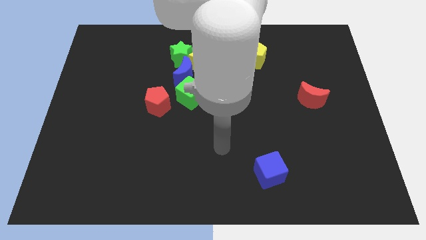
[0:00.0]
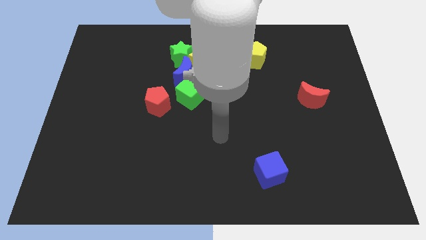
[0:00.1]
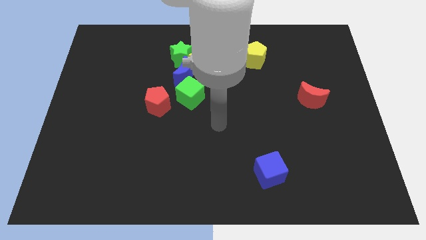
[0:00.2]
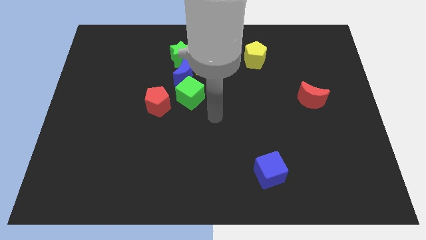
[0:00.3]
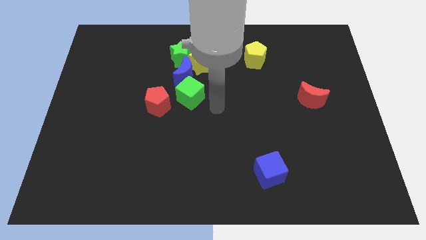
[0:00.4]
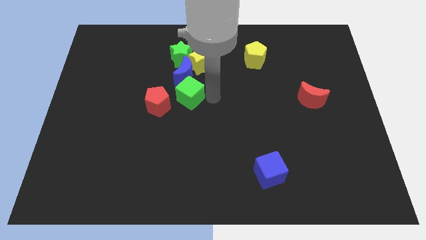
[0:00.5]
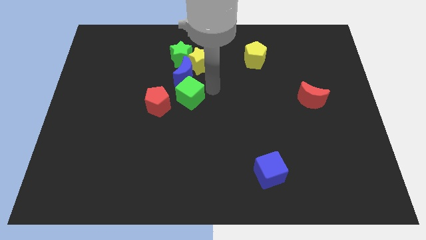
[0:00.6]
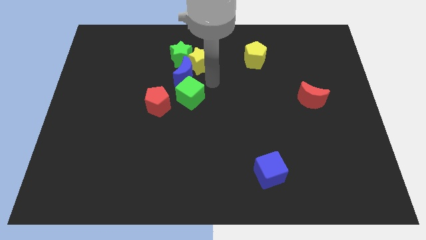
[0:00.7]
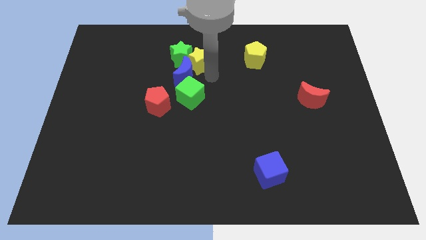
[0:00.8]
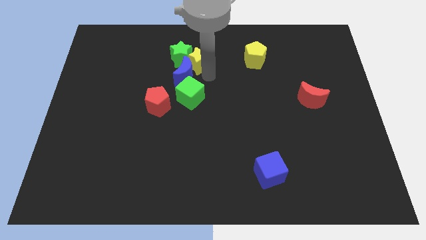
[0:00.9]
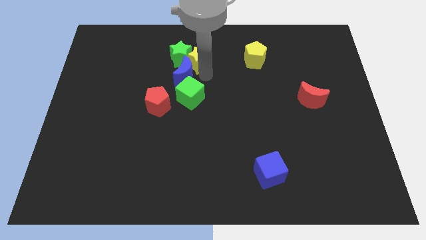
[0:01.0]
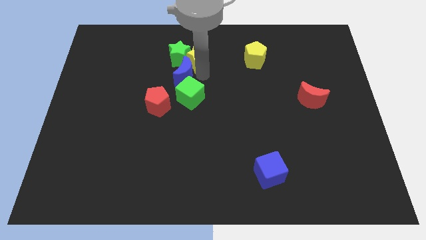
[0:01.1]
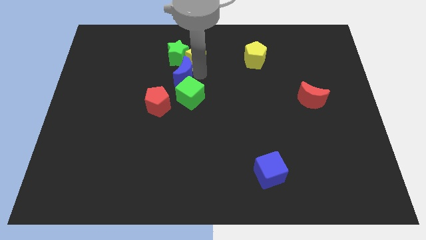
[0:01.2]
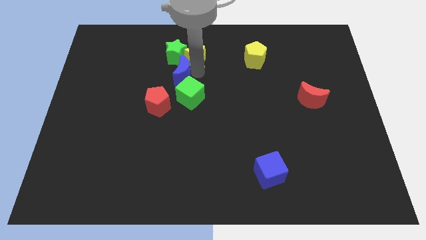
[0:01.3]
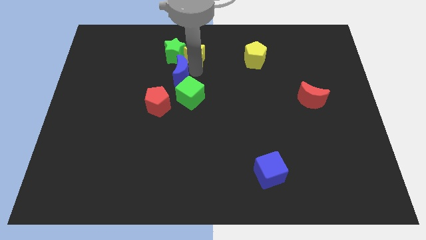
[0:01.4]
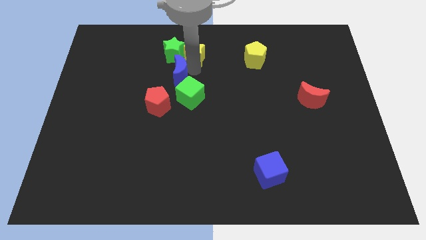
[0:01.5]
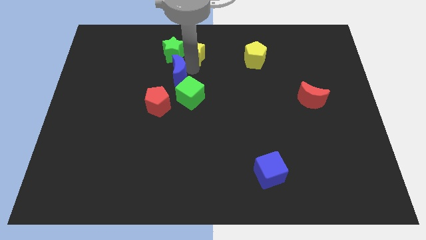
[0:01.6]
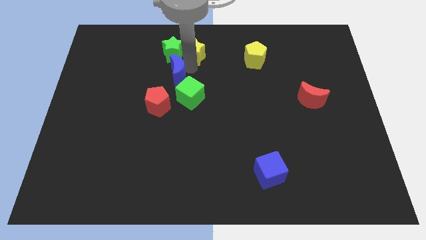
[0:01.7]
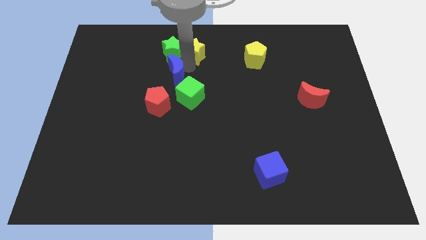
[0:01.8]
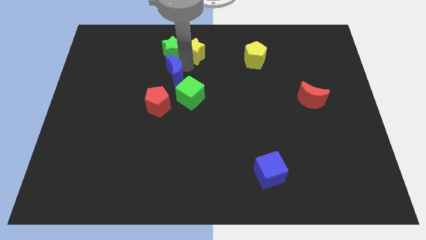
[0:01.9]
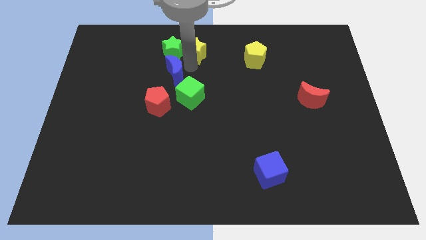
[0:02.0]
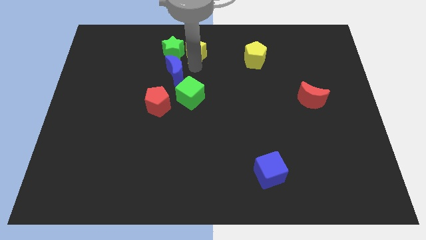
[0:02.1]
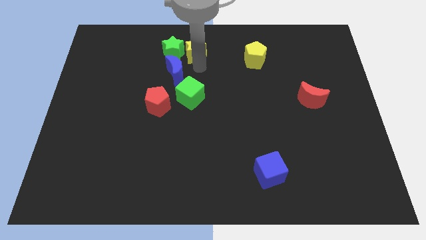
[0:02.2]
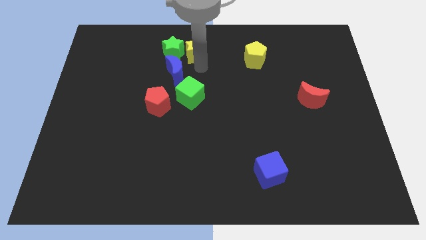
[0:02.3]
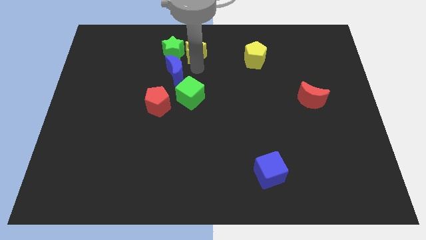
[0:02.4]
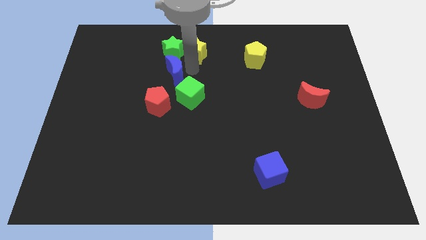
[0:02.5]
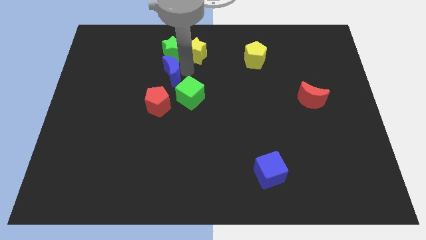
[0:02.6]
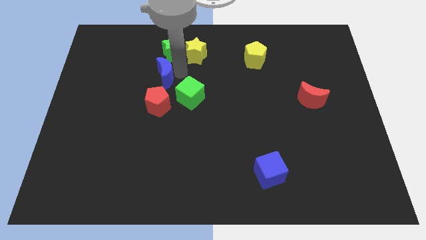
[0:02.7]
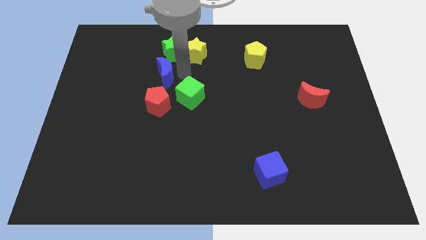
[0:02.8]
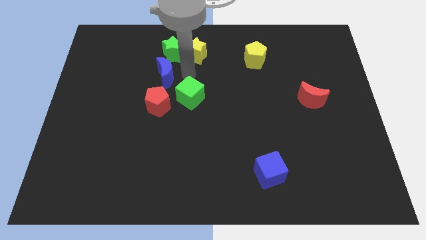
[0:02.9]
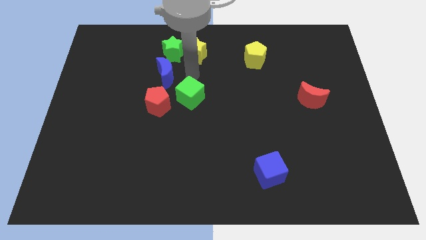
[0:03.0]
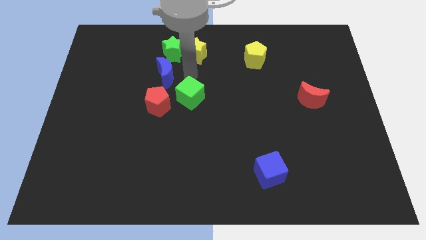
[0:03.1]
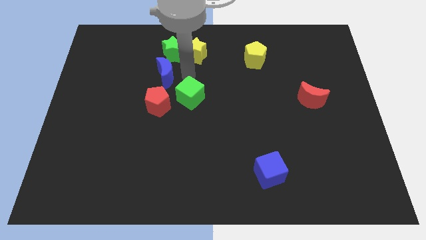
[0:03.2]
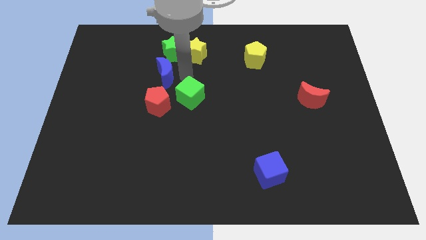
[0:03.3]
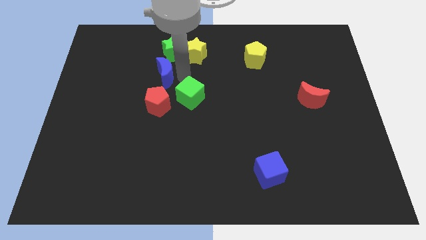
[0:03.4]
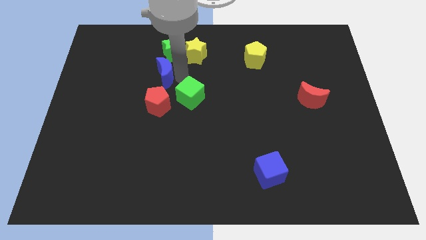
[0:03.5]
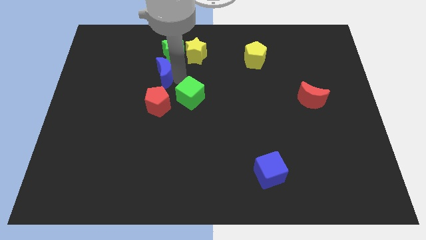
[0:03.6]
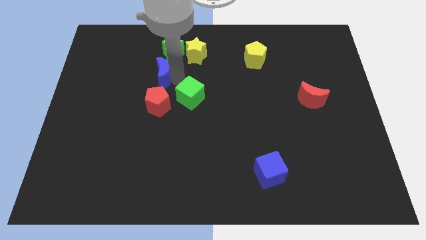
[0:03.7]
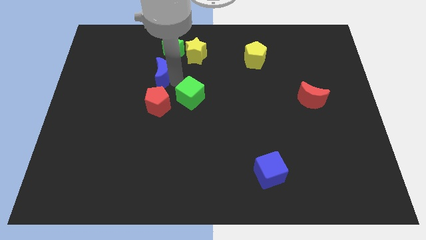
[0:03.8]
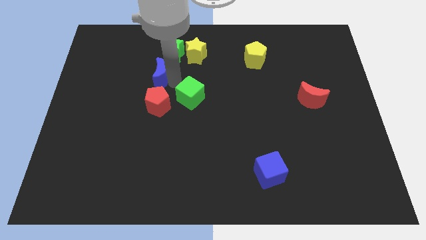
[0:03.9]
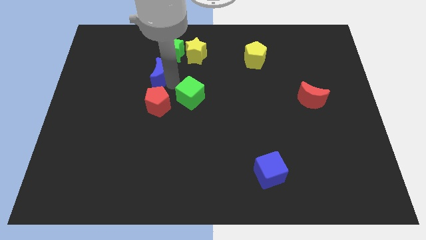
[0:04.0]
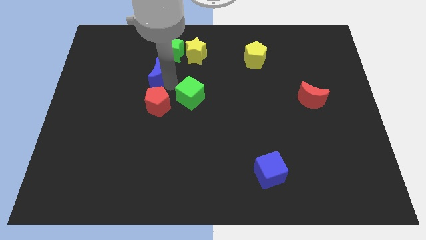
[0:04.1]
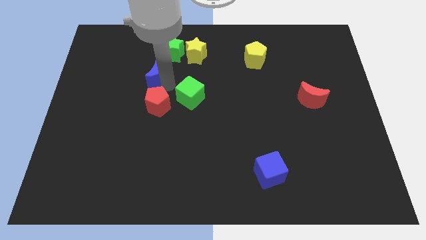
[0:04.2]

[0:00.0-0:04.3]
slightly move the blue moon to the left

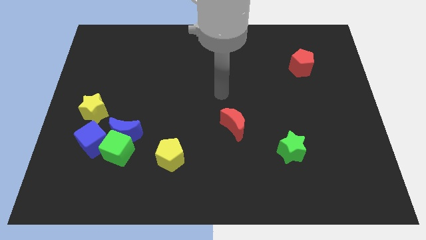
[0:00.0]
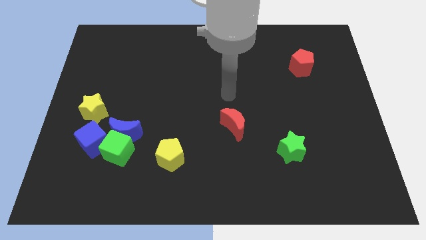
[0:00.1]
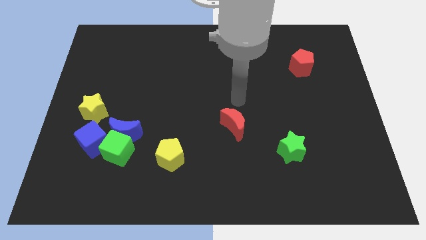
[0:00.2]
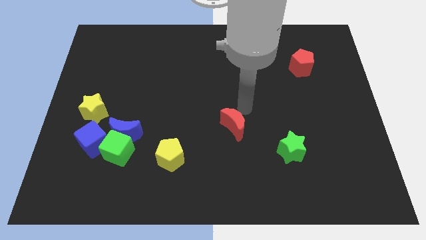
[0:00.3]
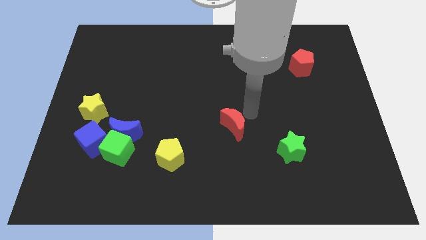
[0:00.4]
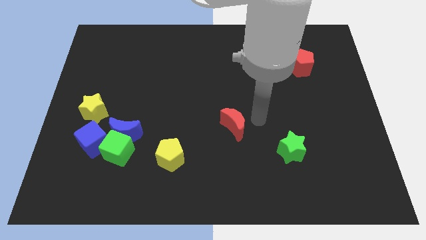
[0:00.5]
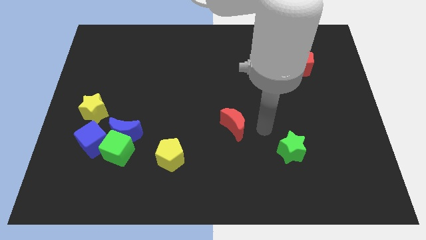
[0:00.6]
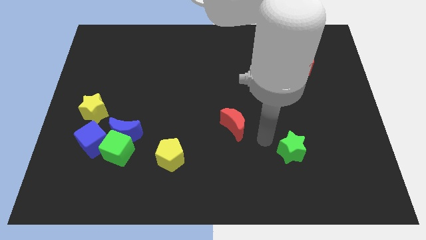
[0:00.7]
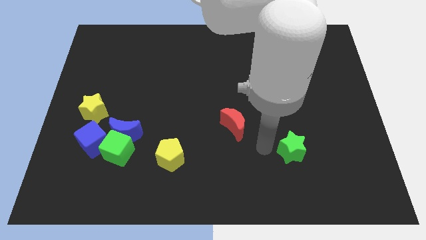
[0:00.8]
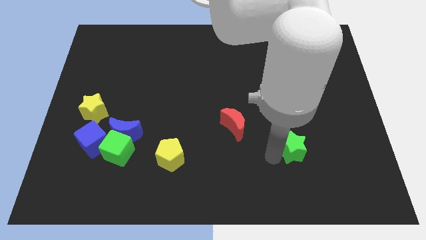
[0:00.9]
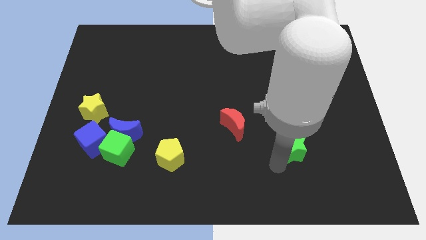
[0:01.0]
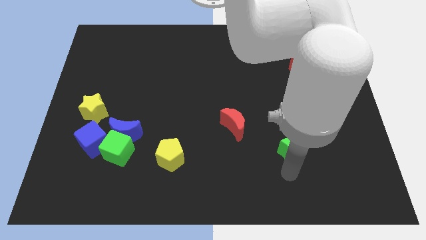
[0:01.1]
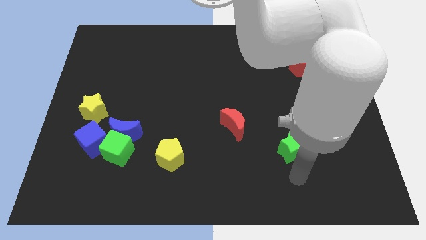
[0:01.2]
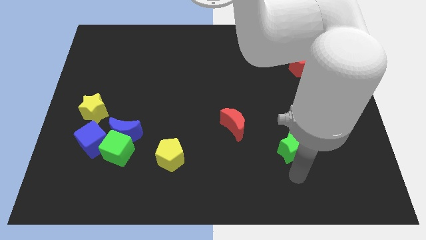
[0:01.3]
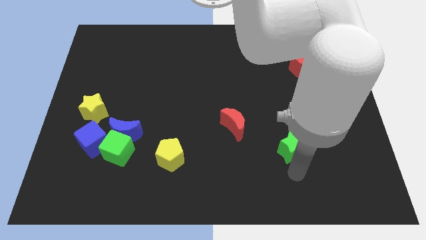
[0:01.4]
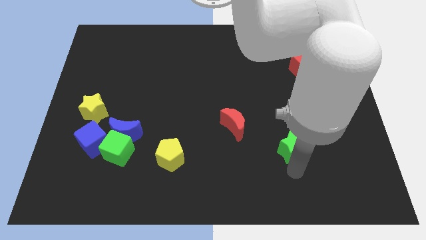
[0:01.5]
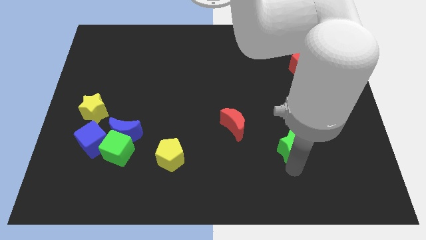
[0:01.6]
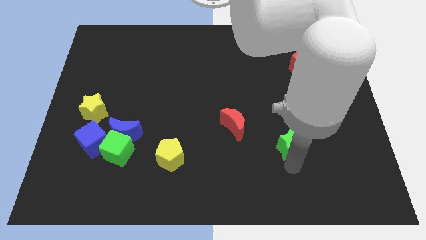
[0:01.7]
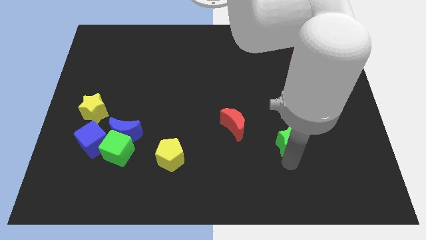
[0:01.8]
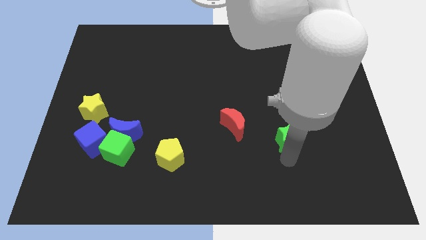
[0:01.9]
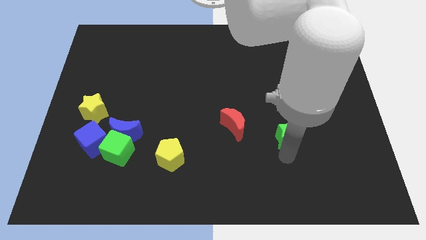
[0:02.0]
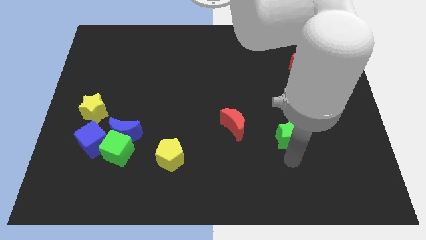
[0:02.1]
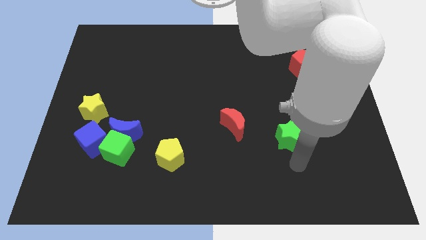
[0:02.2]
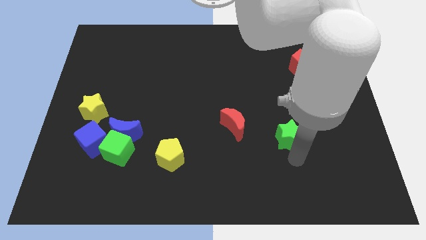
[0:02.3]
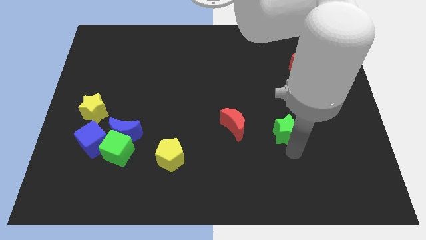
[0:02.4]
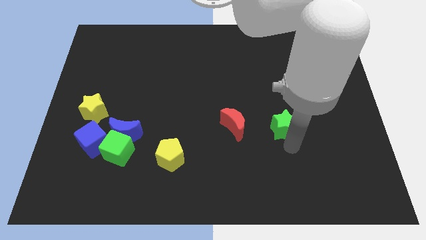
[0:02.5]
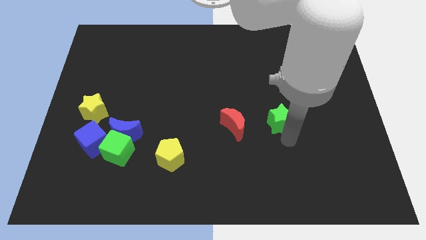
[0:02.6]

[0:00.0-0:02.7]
push the green star up slightly

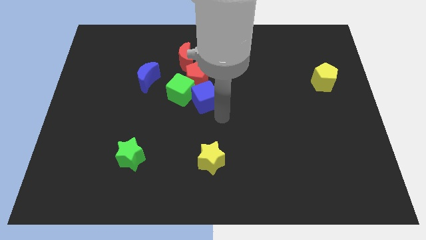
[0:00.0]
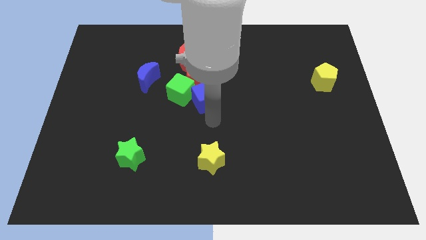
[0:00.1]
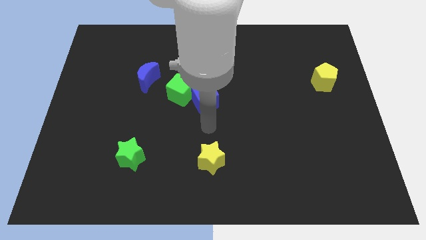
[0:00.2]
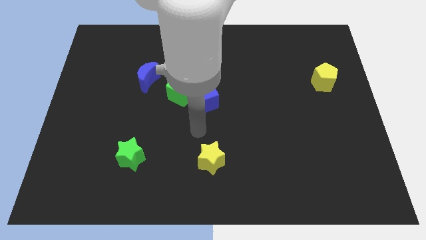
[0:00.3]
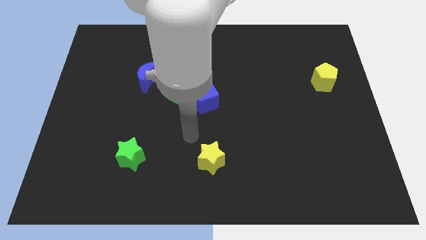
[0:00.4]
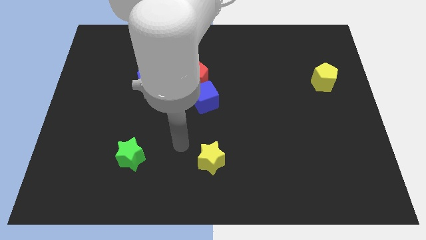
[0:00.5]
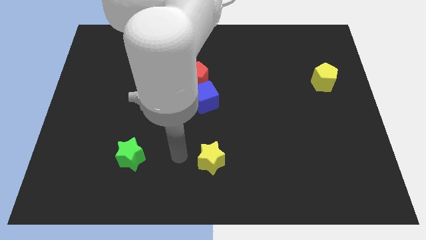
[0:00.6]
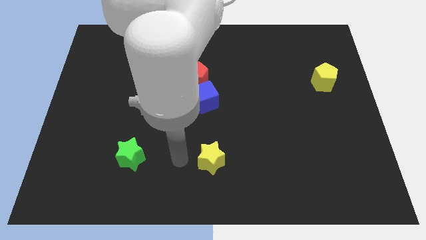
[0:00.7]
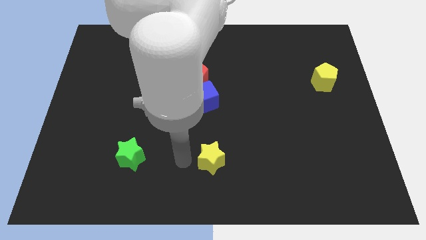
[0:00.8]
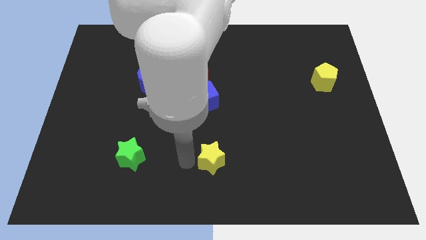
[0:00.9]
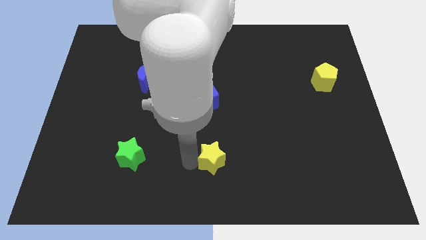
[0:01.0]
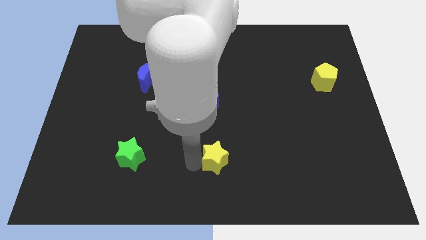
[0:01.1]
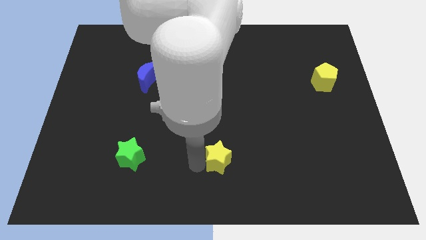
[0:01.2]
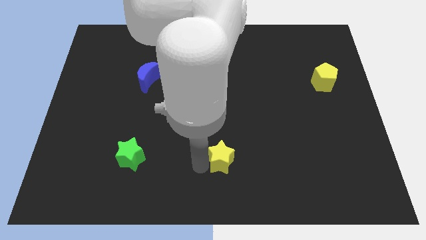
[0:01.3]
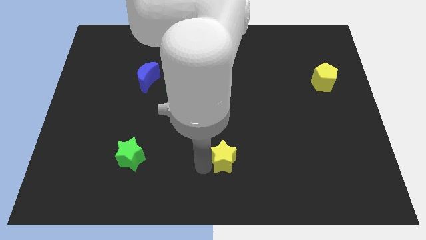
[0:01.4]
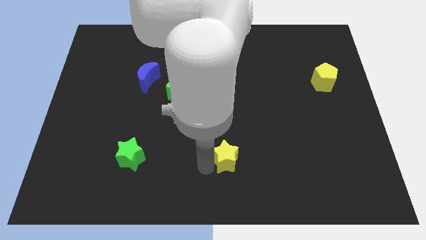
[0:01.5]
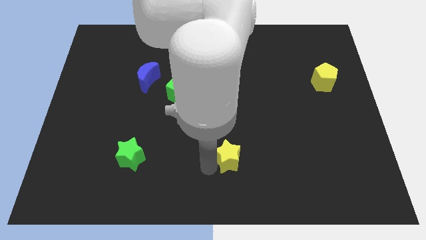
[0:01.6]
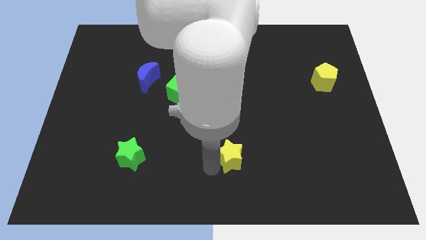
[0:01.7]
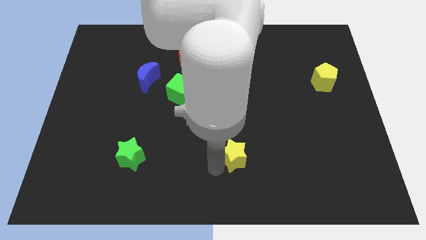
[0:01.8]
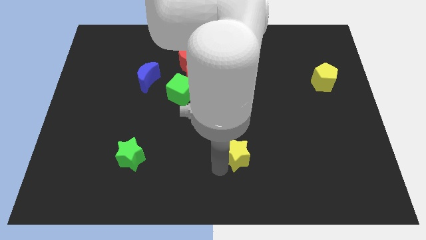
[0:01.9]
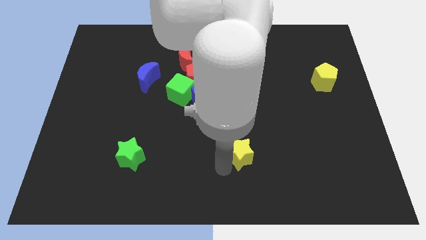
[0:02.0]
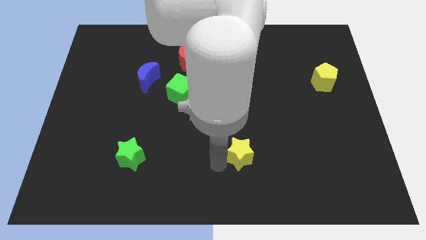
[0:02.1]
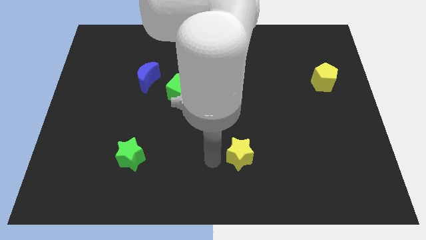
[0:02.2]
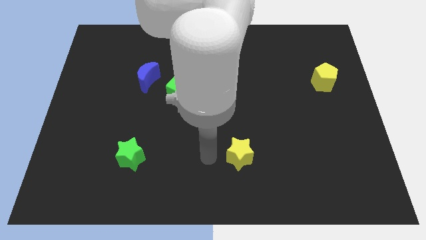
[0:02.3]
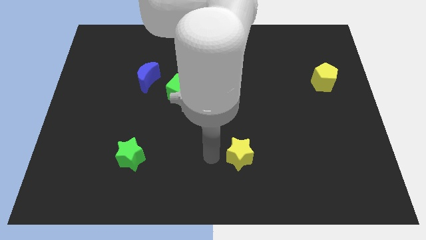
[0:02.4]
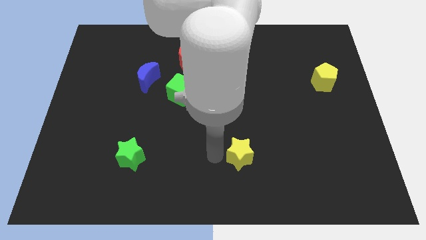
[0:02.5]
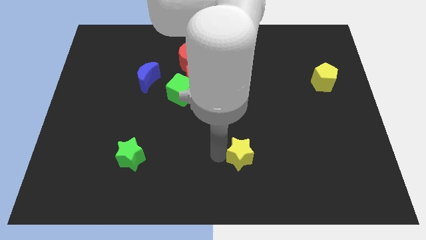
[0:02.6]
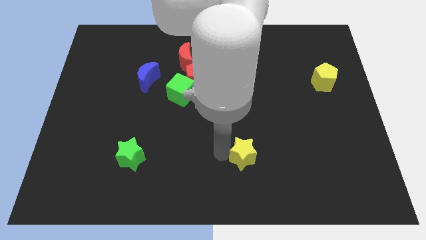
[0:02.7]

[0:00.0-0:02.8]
slightly slide the yellow star to the right
